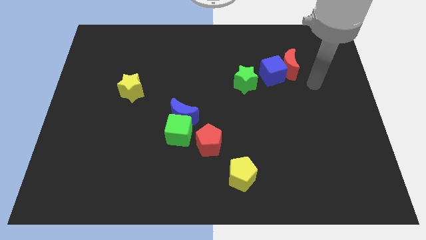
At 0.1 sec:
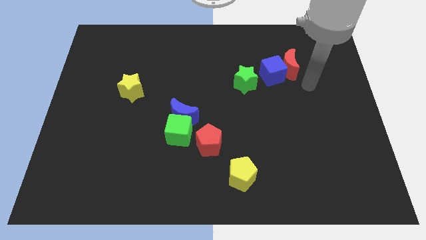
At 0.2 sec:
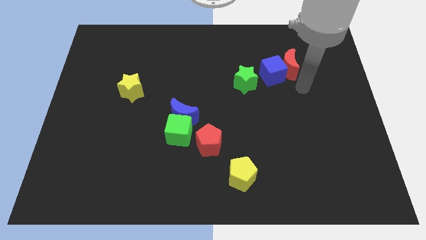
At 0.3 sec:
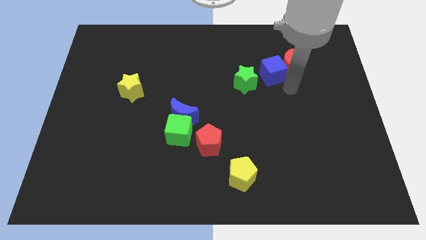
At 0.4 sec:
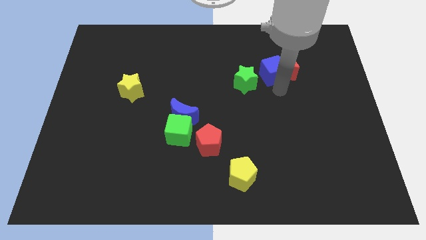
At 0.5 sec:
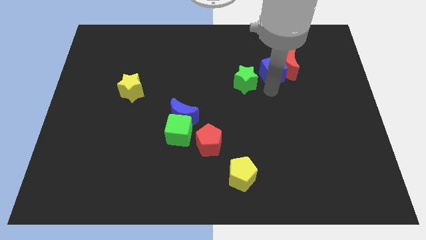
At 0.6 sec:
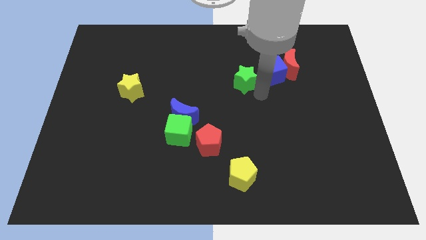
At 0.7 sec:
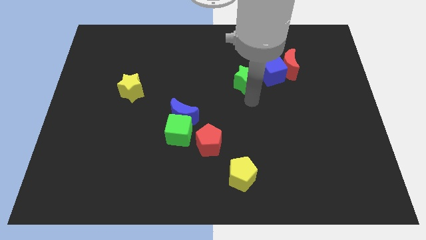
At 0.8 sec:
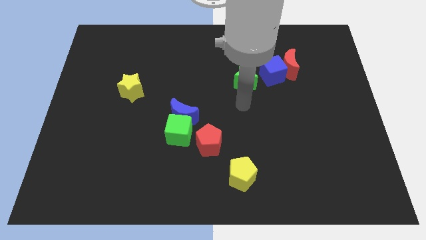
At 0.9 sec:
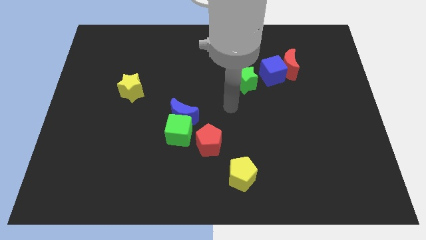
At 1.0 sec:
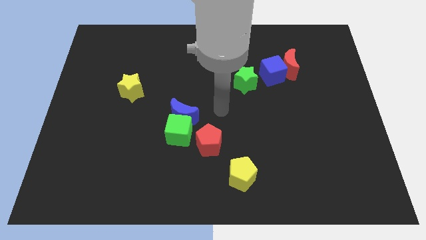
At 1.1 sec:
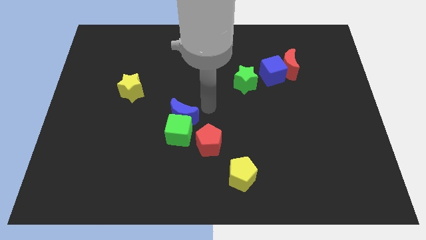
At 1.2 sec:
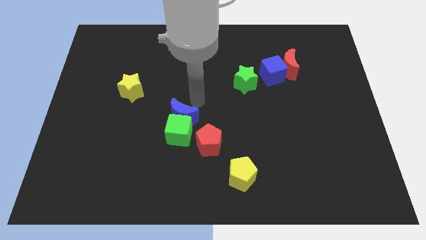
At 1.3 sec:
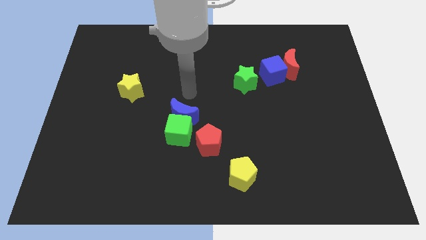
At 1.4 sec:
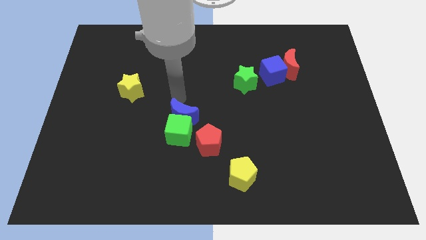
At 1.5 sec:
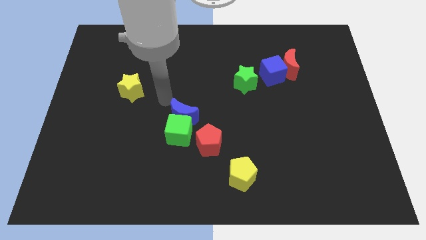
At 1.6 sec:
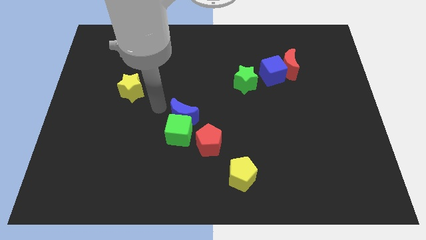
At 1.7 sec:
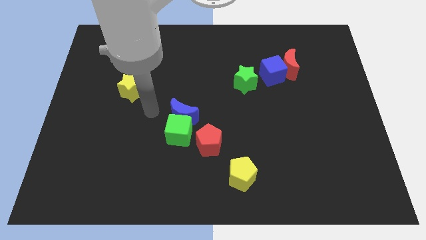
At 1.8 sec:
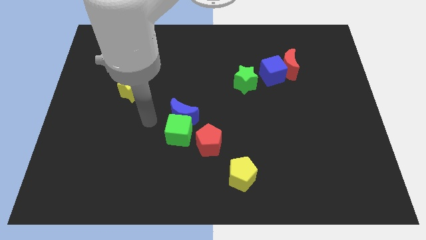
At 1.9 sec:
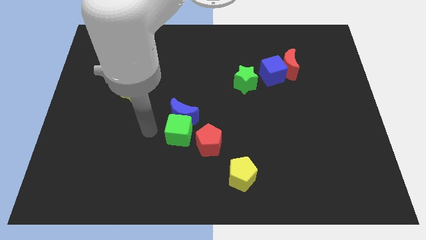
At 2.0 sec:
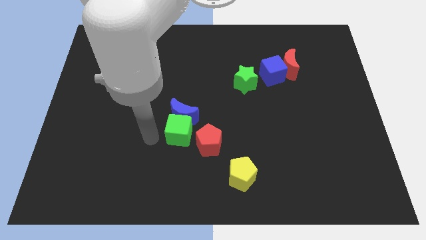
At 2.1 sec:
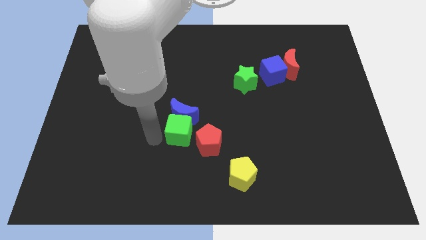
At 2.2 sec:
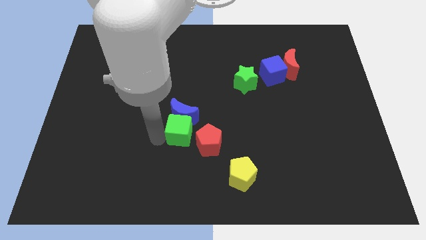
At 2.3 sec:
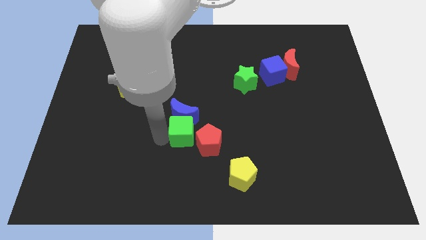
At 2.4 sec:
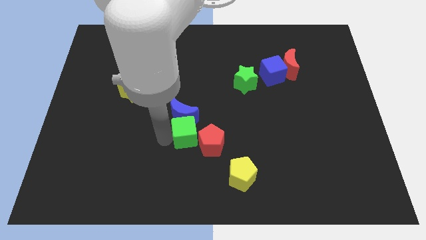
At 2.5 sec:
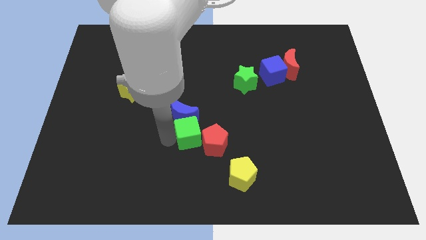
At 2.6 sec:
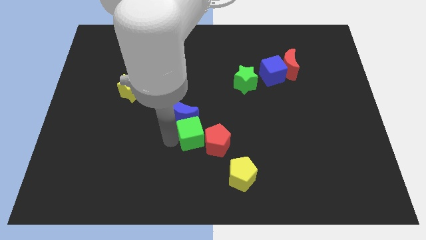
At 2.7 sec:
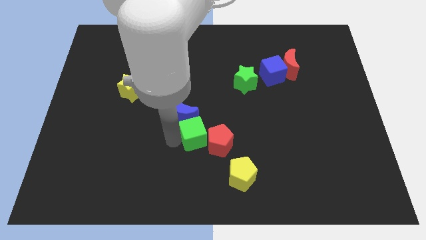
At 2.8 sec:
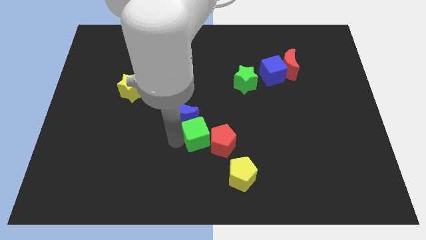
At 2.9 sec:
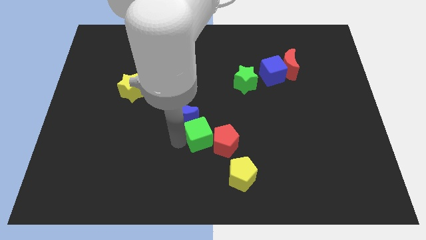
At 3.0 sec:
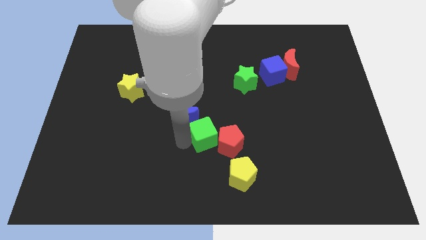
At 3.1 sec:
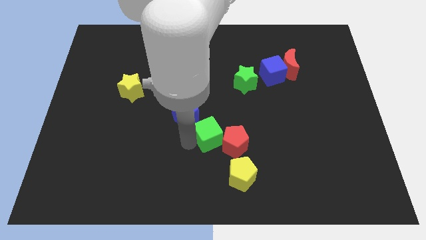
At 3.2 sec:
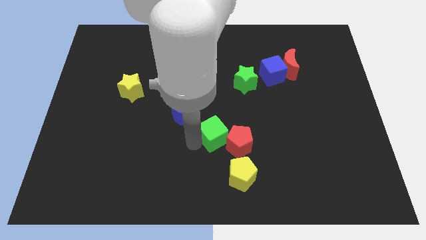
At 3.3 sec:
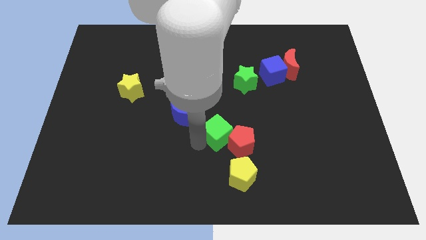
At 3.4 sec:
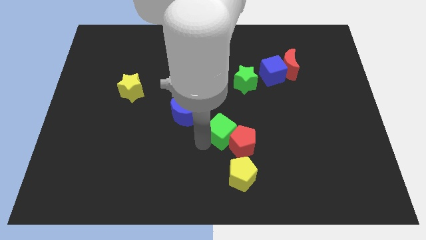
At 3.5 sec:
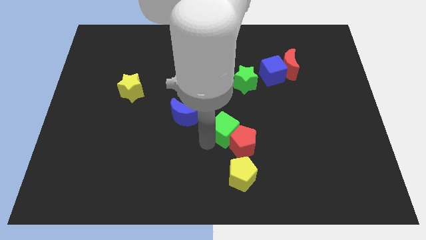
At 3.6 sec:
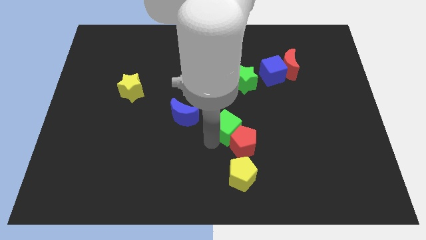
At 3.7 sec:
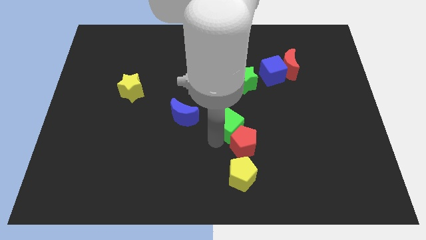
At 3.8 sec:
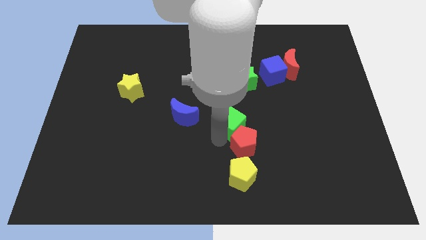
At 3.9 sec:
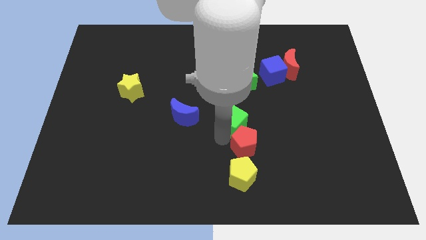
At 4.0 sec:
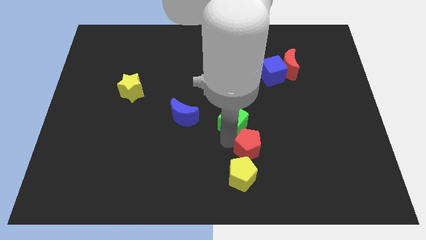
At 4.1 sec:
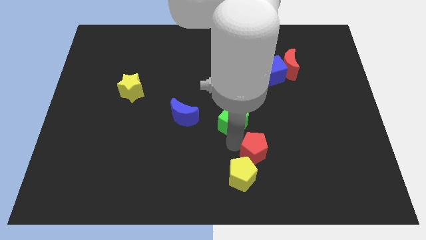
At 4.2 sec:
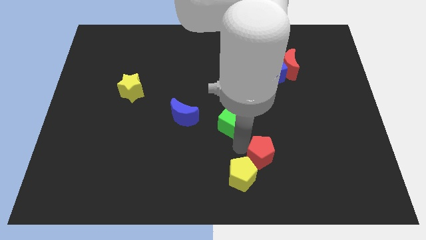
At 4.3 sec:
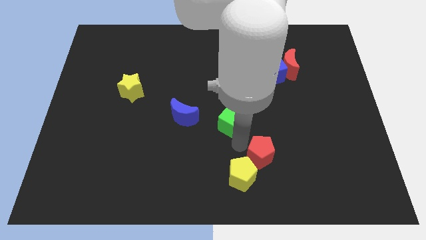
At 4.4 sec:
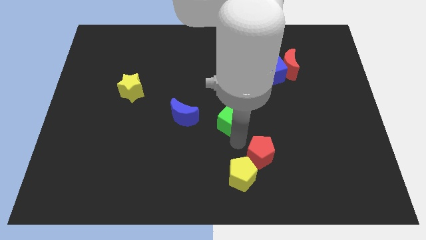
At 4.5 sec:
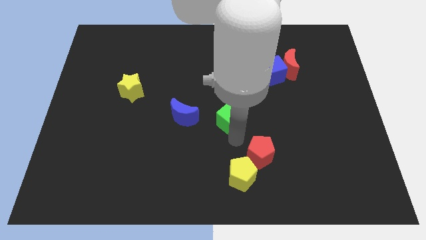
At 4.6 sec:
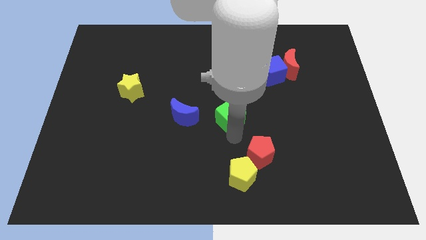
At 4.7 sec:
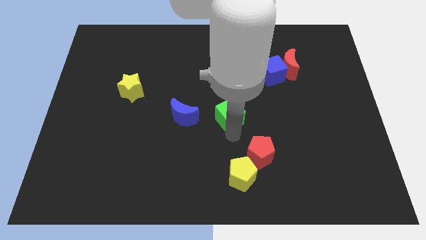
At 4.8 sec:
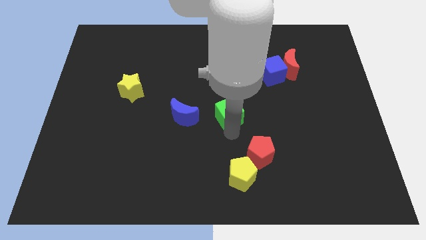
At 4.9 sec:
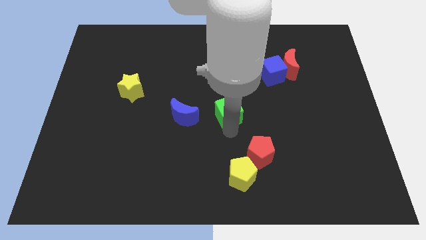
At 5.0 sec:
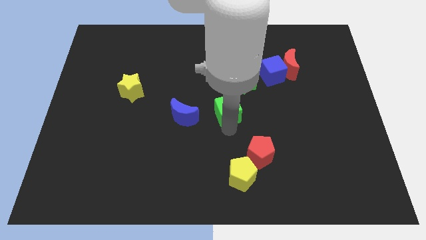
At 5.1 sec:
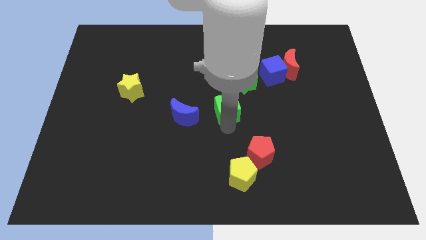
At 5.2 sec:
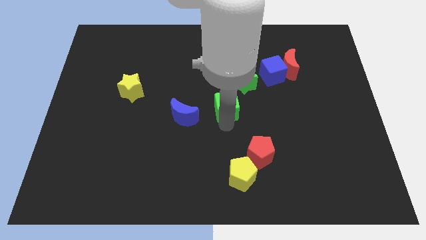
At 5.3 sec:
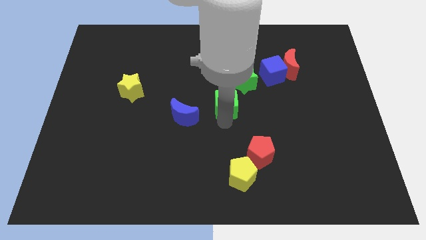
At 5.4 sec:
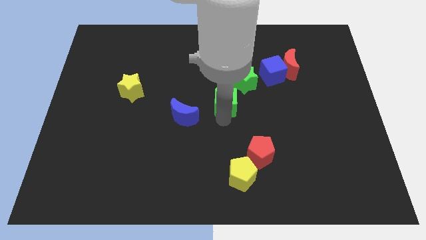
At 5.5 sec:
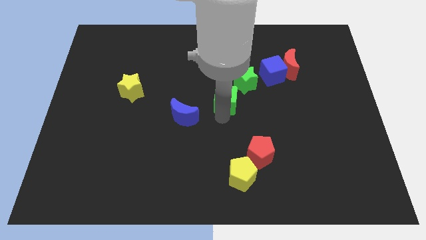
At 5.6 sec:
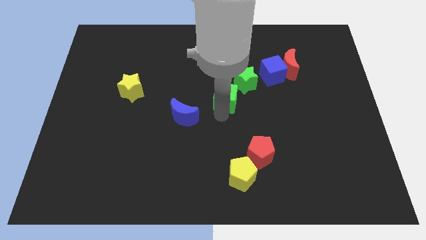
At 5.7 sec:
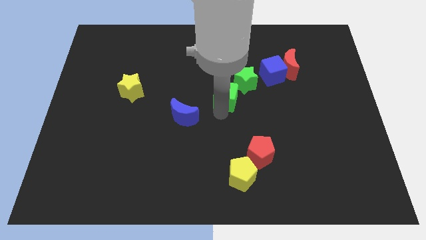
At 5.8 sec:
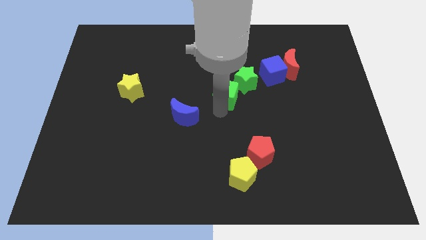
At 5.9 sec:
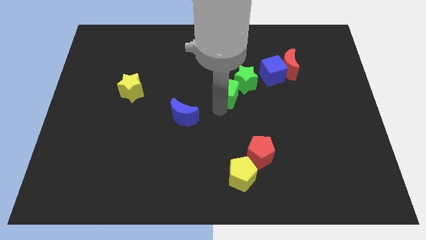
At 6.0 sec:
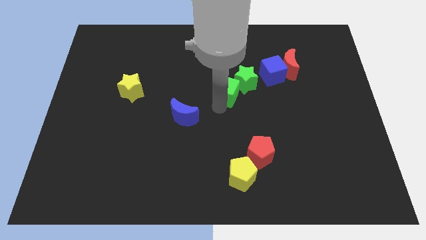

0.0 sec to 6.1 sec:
push the green cube close to the green star
